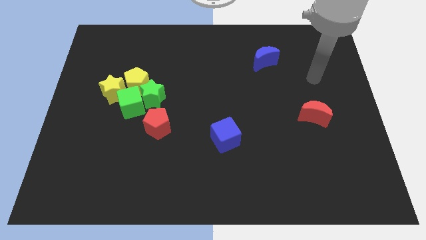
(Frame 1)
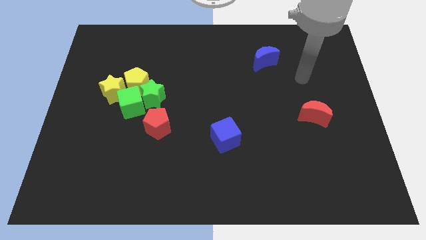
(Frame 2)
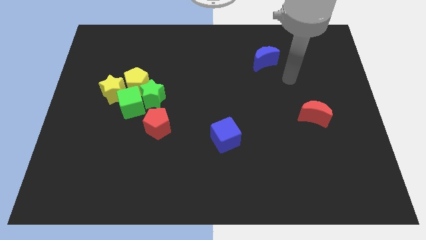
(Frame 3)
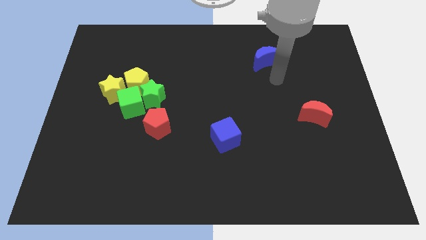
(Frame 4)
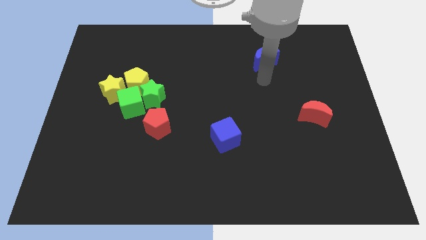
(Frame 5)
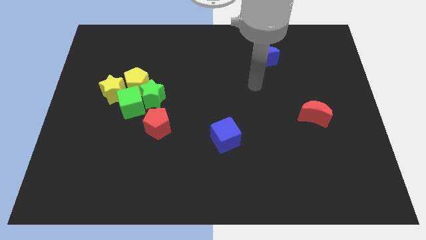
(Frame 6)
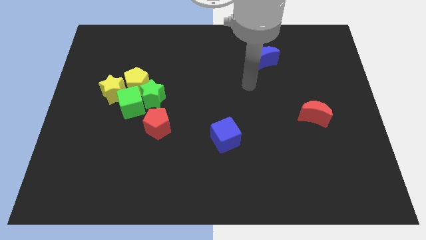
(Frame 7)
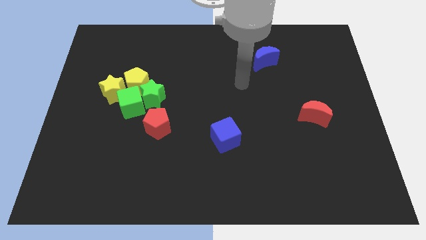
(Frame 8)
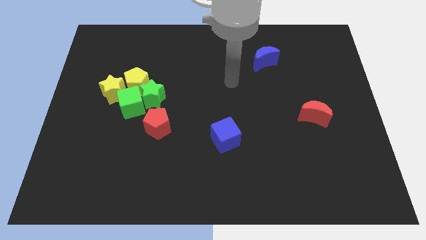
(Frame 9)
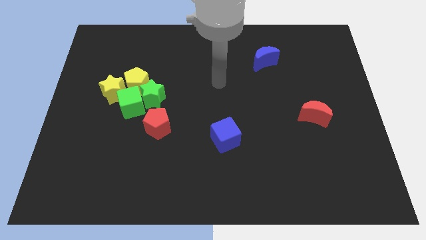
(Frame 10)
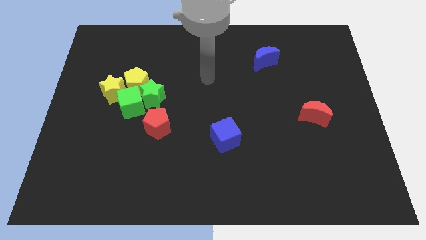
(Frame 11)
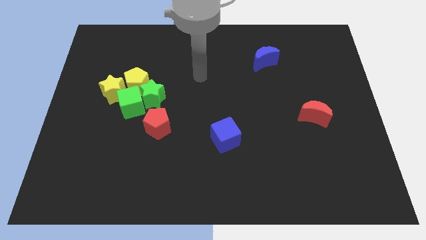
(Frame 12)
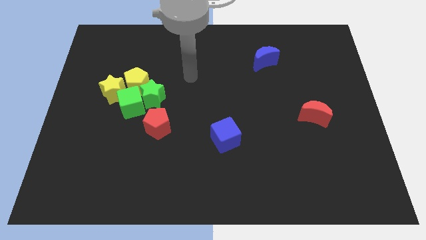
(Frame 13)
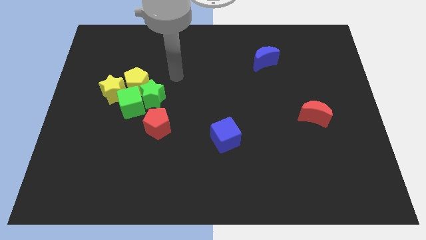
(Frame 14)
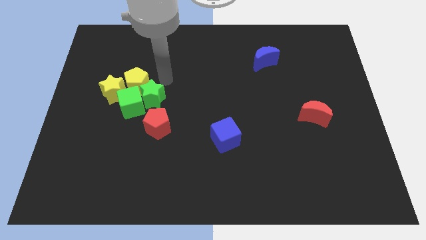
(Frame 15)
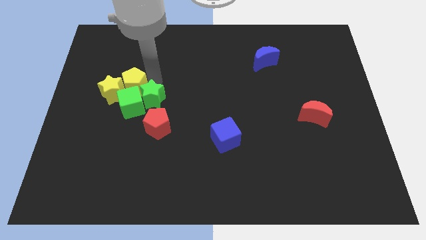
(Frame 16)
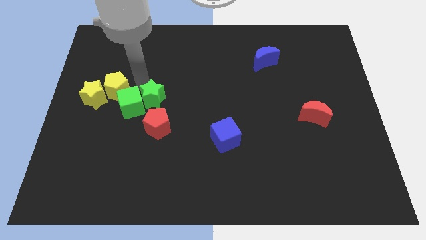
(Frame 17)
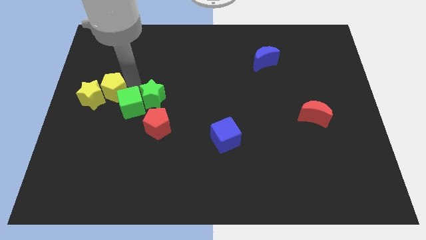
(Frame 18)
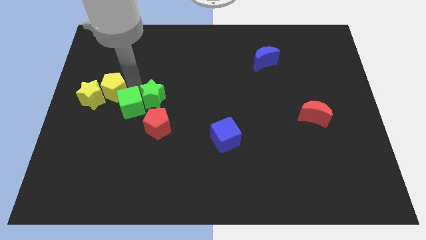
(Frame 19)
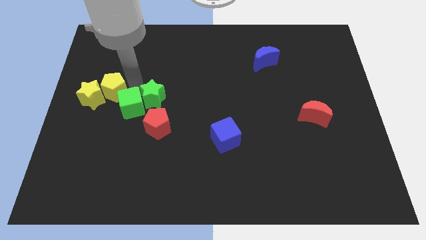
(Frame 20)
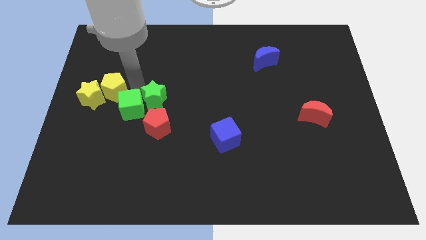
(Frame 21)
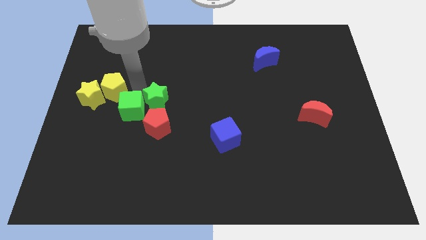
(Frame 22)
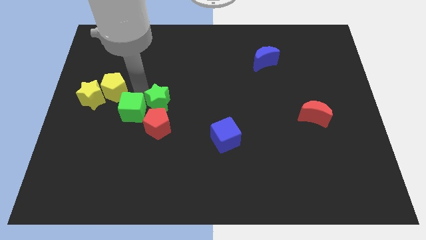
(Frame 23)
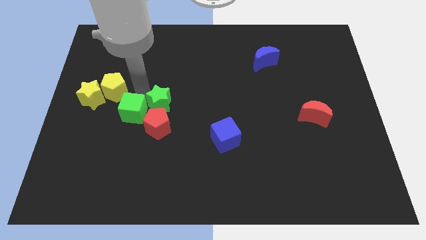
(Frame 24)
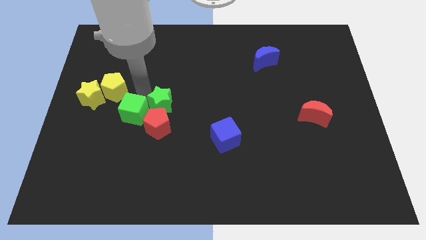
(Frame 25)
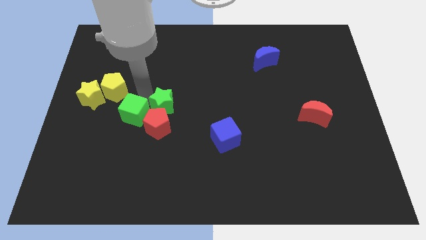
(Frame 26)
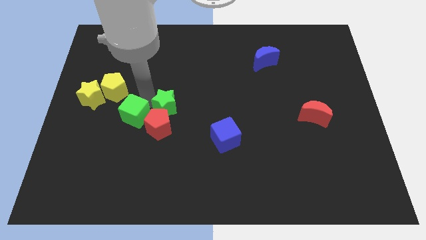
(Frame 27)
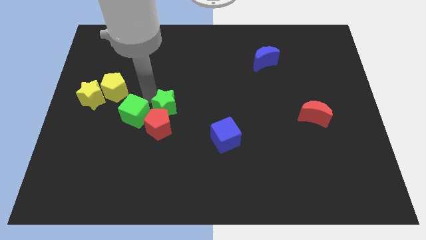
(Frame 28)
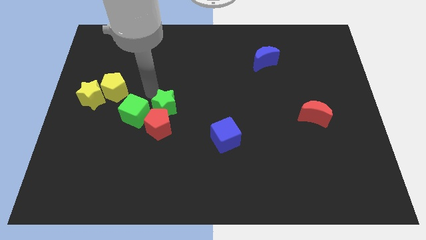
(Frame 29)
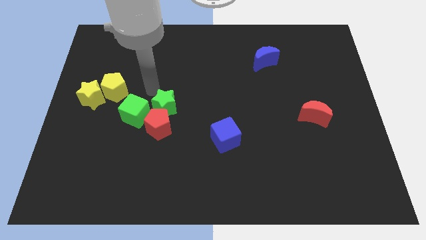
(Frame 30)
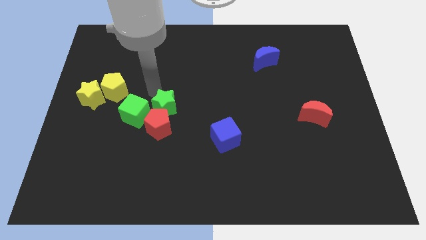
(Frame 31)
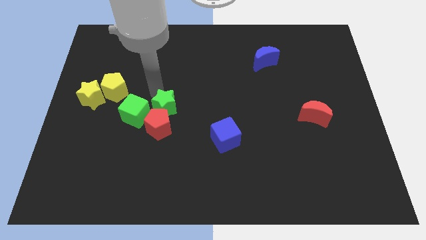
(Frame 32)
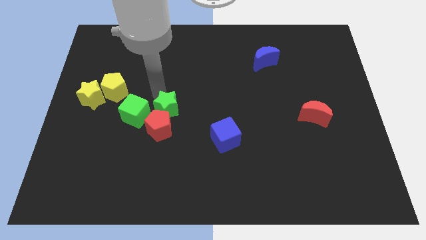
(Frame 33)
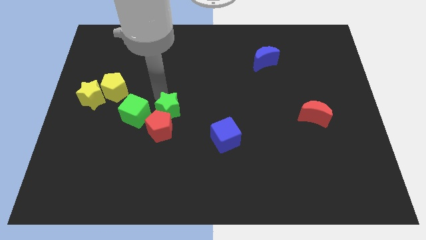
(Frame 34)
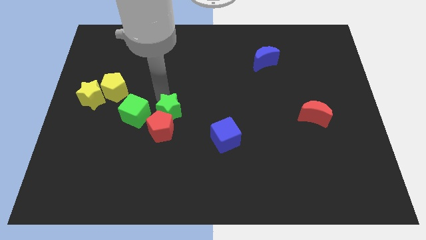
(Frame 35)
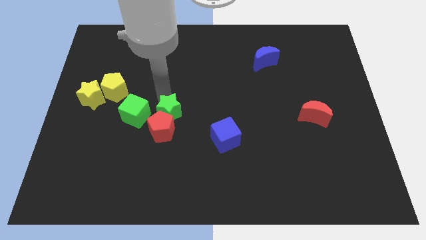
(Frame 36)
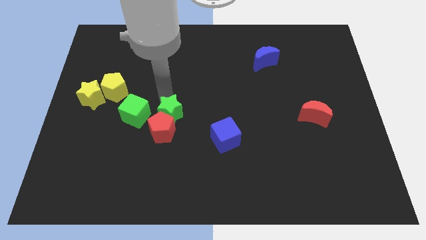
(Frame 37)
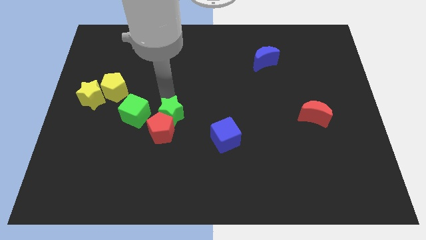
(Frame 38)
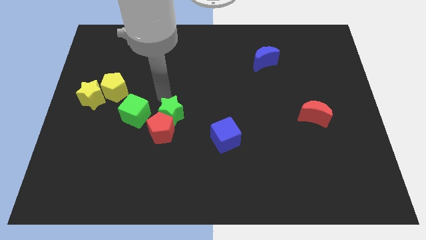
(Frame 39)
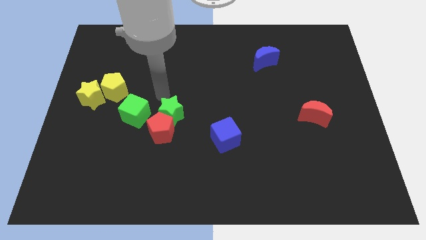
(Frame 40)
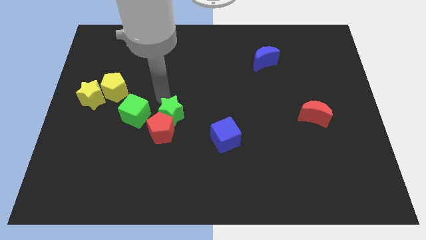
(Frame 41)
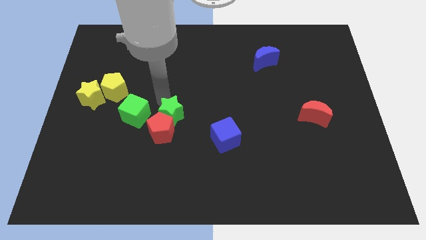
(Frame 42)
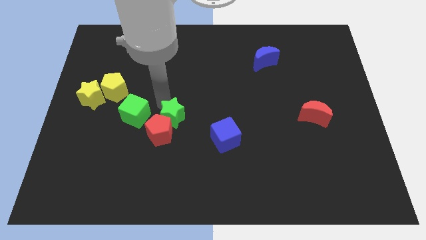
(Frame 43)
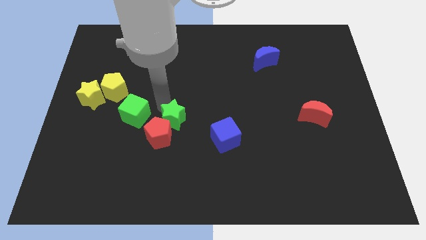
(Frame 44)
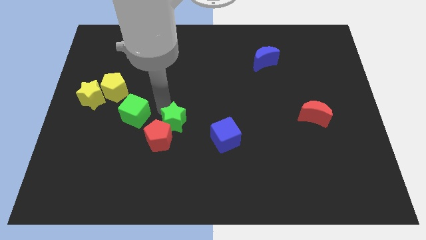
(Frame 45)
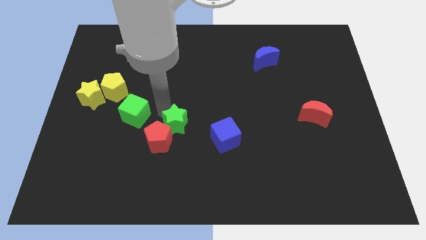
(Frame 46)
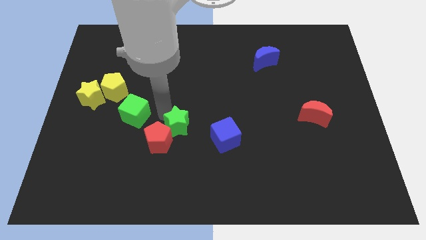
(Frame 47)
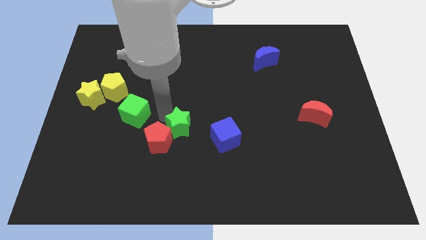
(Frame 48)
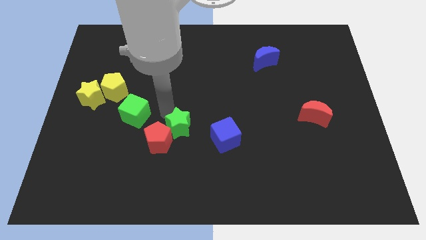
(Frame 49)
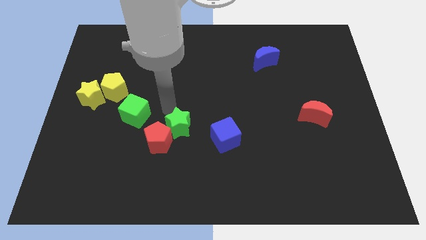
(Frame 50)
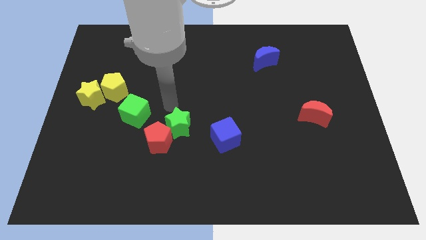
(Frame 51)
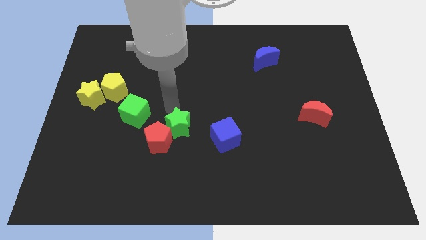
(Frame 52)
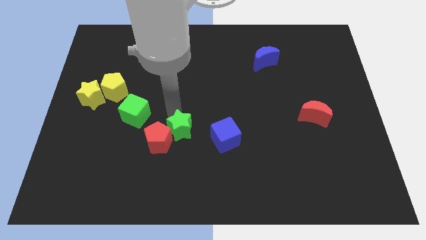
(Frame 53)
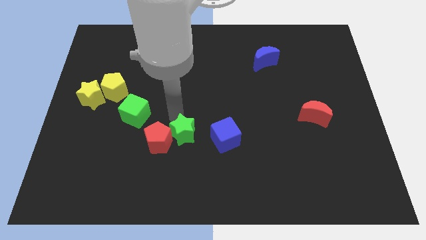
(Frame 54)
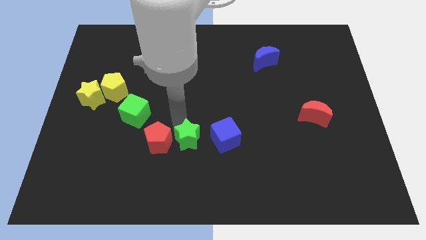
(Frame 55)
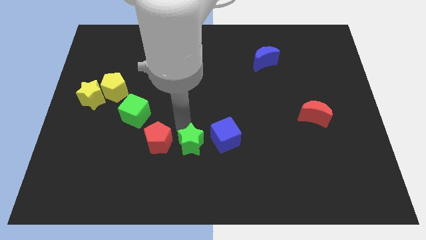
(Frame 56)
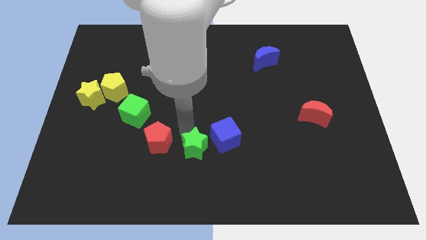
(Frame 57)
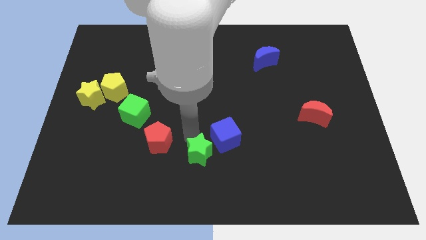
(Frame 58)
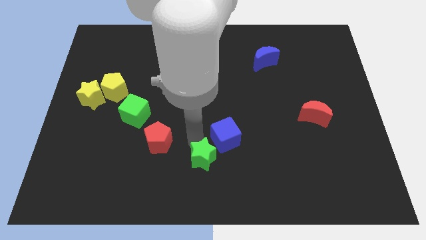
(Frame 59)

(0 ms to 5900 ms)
put the green star to the bottom
